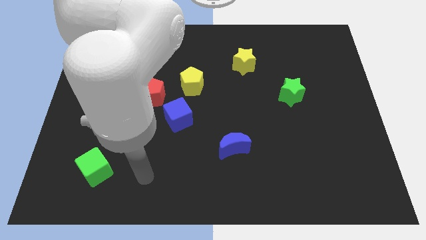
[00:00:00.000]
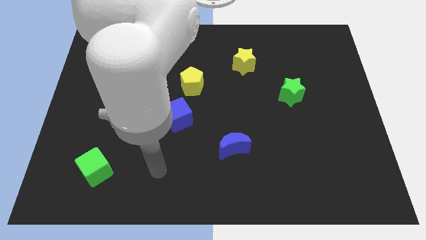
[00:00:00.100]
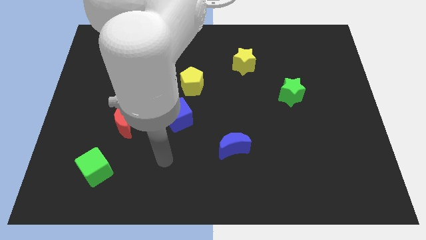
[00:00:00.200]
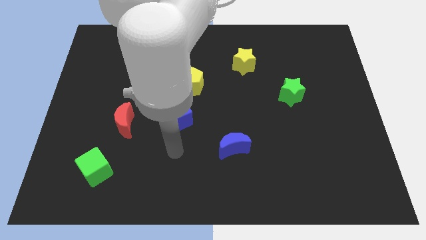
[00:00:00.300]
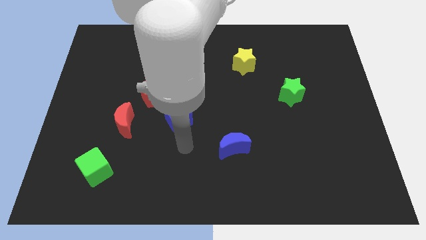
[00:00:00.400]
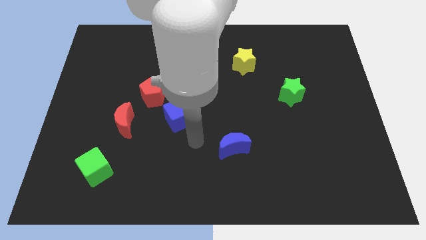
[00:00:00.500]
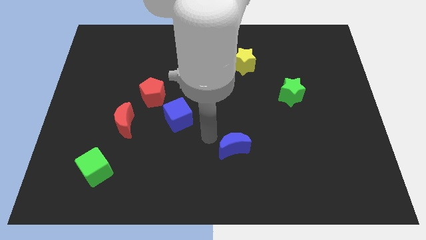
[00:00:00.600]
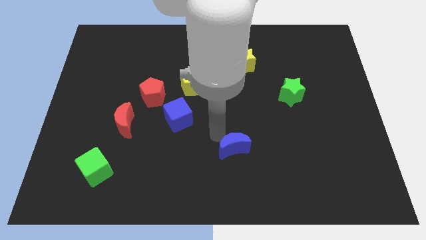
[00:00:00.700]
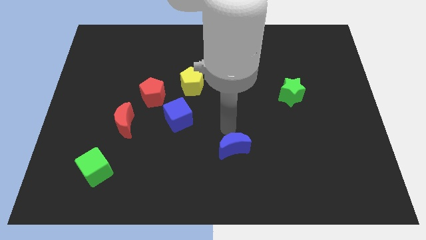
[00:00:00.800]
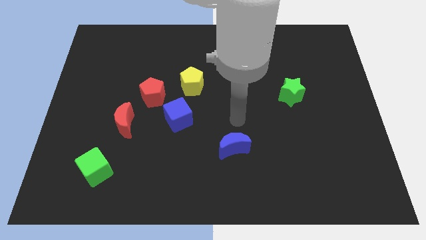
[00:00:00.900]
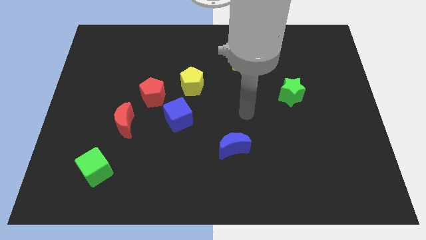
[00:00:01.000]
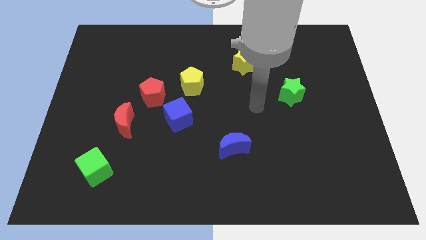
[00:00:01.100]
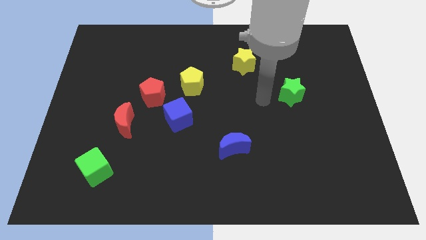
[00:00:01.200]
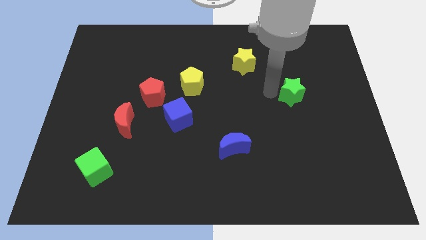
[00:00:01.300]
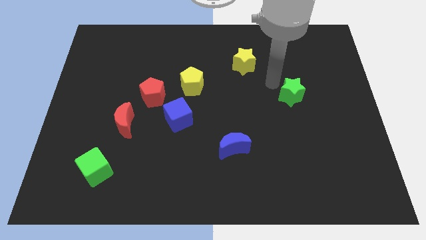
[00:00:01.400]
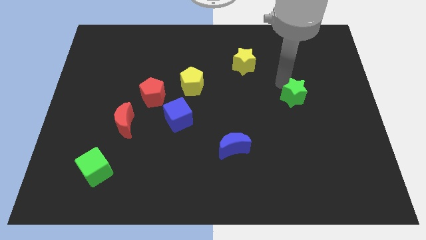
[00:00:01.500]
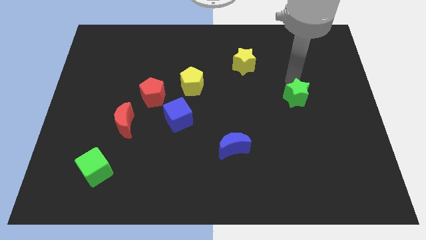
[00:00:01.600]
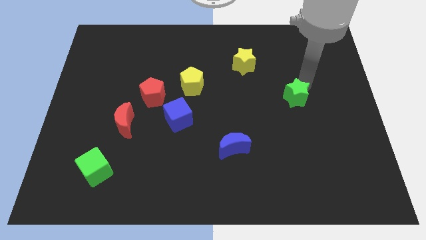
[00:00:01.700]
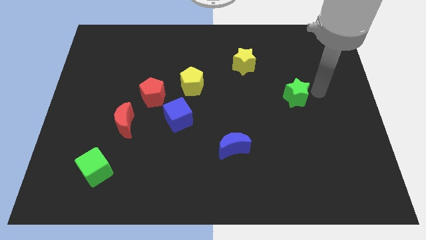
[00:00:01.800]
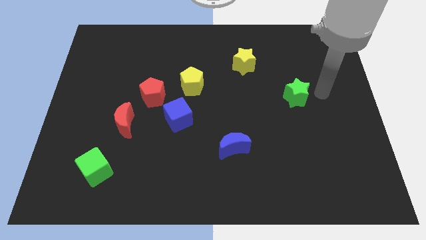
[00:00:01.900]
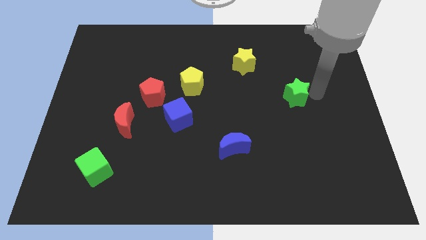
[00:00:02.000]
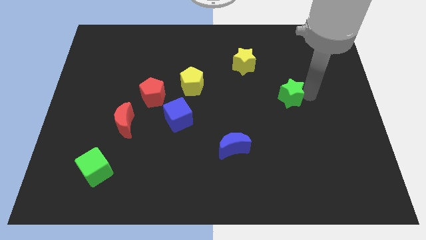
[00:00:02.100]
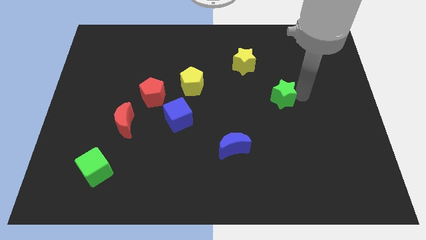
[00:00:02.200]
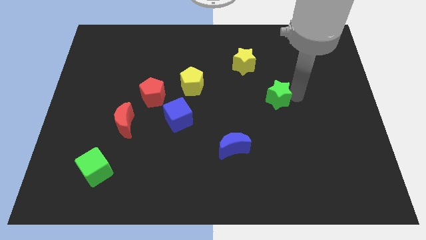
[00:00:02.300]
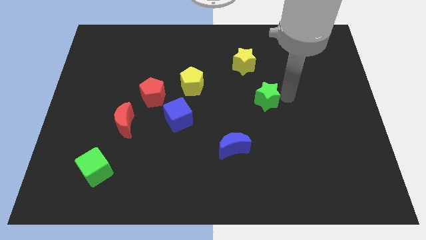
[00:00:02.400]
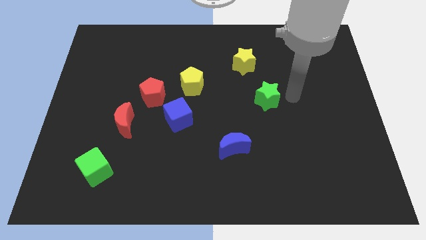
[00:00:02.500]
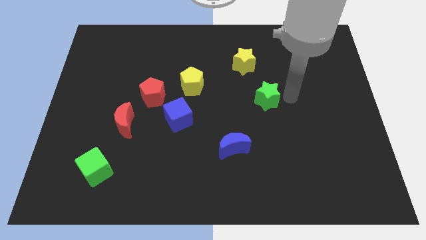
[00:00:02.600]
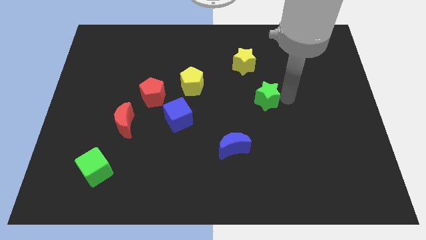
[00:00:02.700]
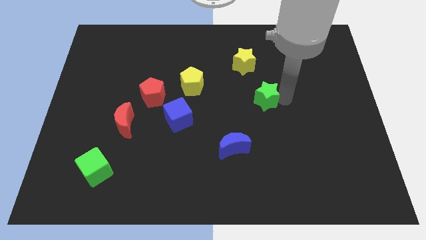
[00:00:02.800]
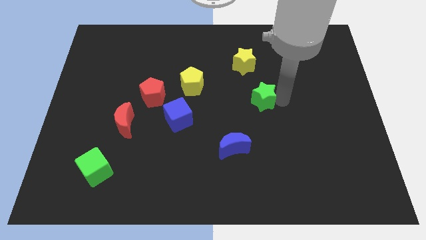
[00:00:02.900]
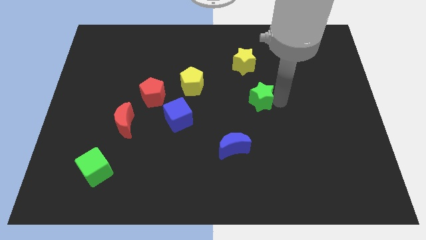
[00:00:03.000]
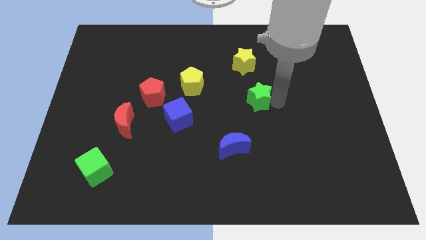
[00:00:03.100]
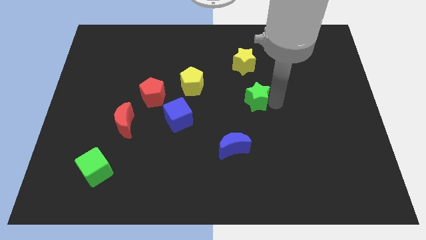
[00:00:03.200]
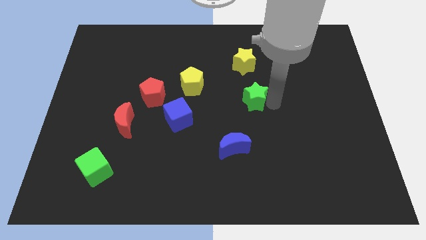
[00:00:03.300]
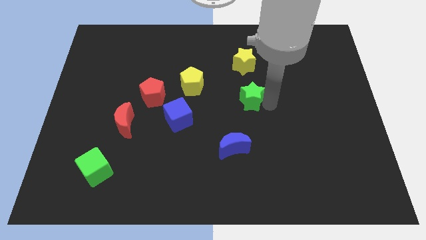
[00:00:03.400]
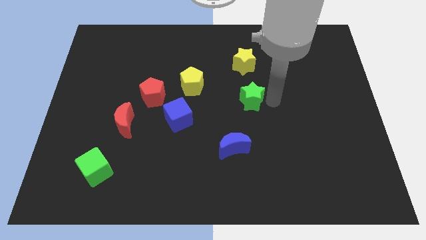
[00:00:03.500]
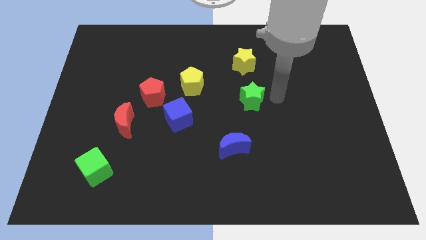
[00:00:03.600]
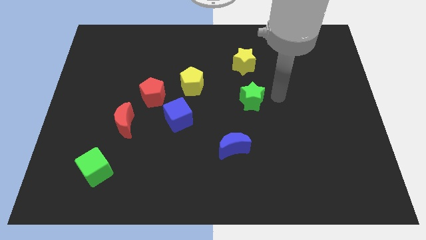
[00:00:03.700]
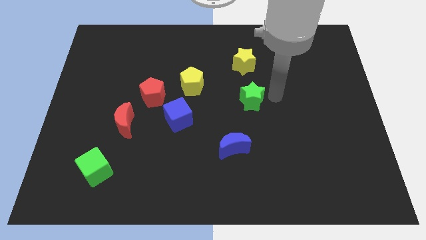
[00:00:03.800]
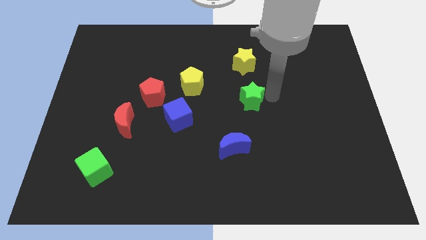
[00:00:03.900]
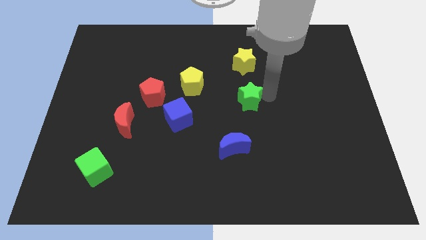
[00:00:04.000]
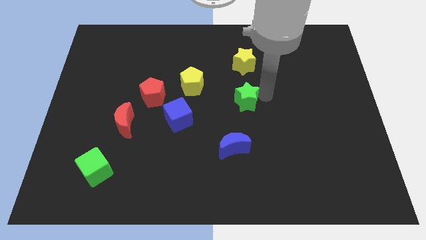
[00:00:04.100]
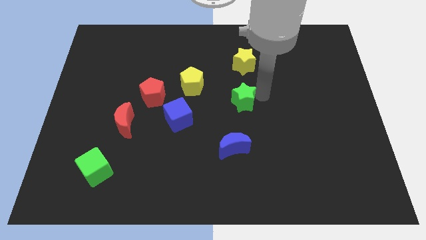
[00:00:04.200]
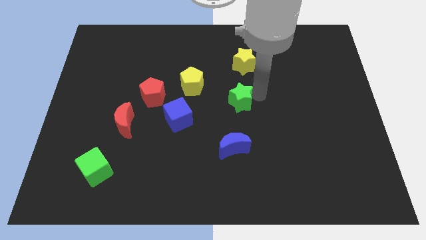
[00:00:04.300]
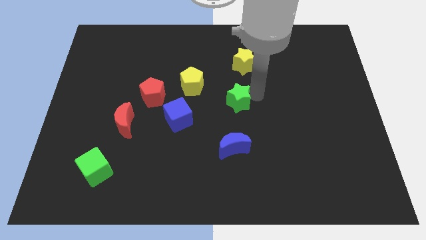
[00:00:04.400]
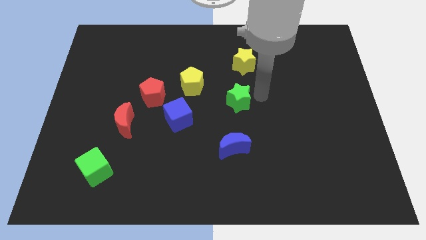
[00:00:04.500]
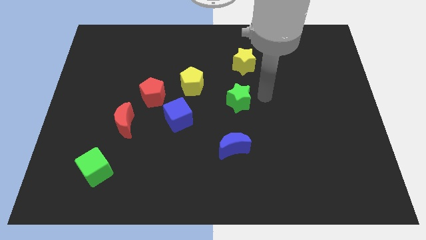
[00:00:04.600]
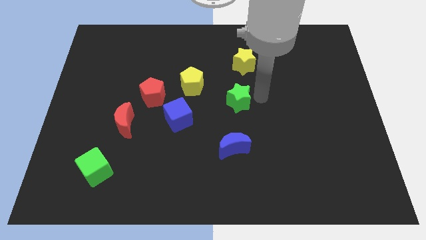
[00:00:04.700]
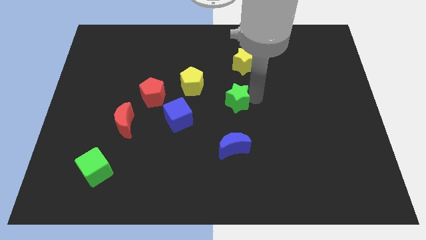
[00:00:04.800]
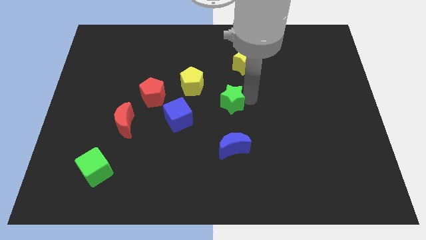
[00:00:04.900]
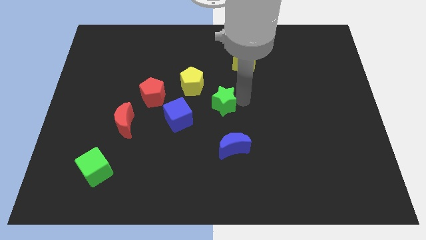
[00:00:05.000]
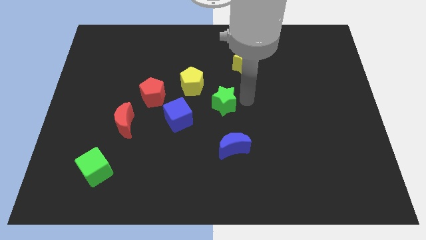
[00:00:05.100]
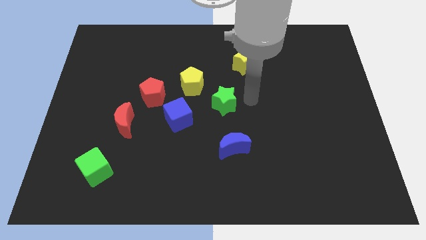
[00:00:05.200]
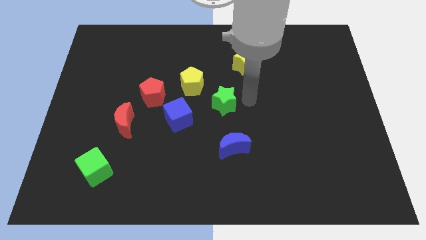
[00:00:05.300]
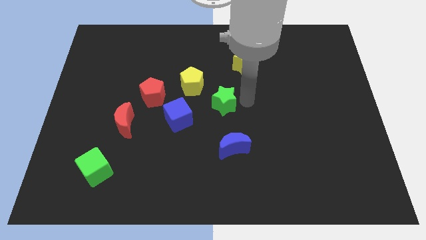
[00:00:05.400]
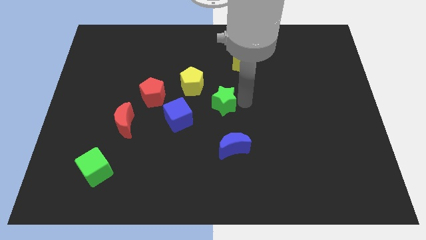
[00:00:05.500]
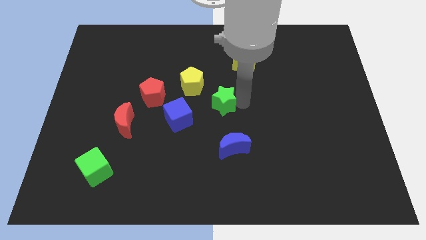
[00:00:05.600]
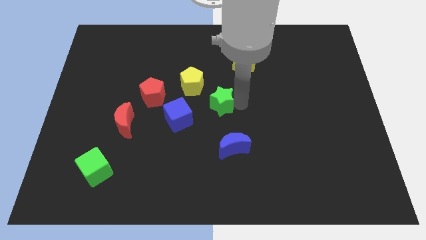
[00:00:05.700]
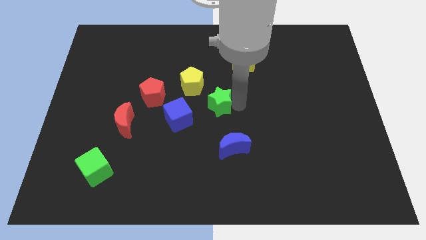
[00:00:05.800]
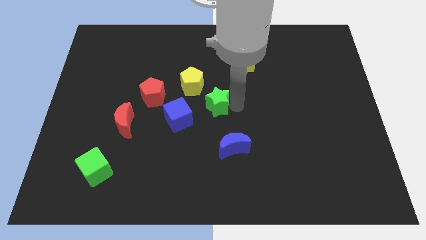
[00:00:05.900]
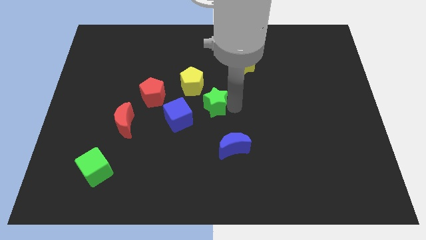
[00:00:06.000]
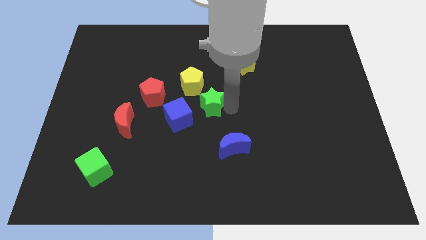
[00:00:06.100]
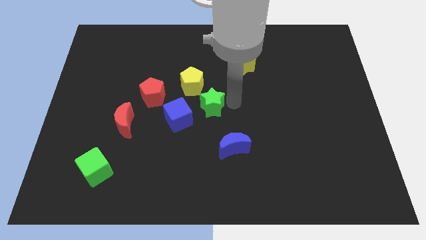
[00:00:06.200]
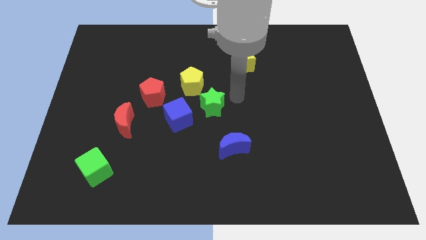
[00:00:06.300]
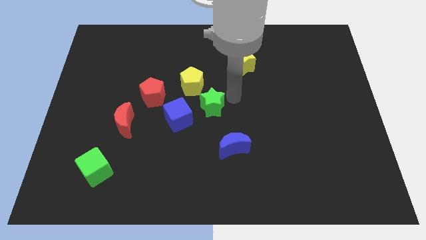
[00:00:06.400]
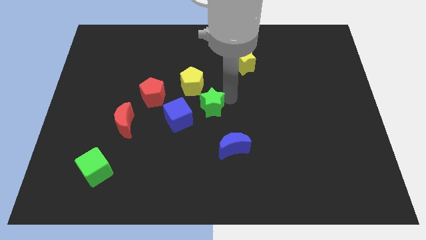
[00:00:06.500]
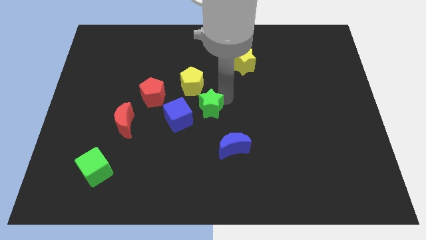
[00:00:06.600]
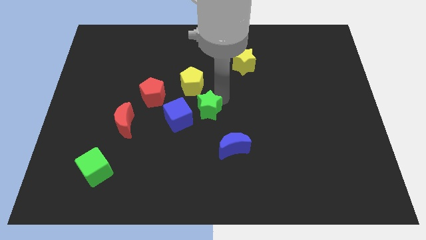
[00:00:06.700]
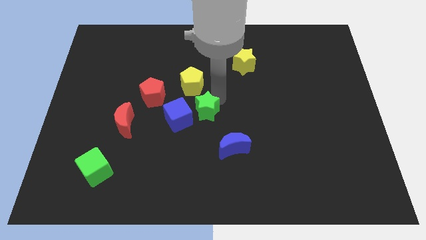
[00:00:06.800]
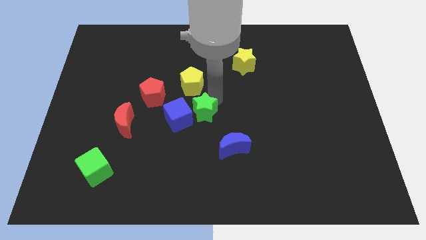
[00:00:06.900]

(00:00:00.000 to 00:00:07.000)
push the green star towards the blue cube
